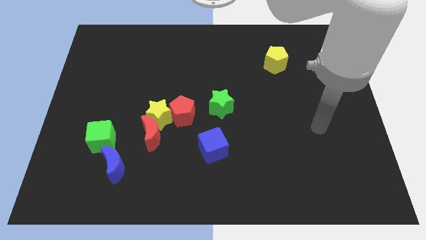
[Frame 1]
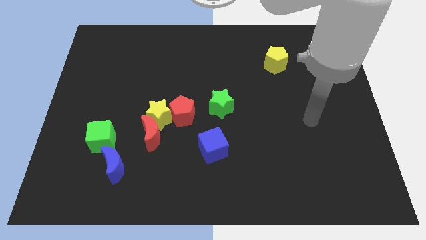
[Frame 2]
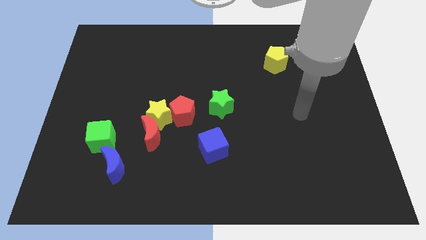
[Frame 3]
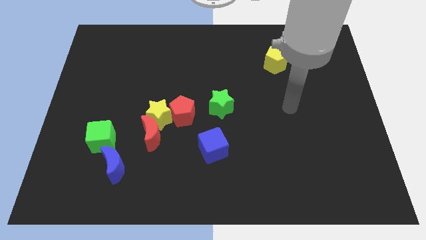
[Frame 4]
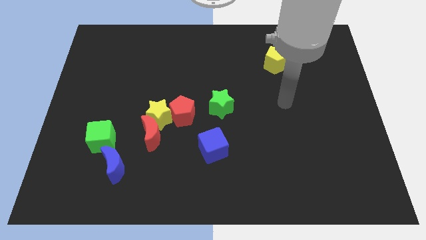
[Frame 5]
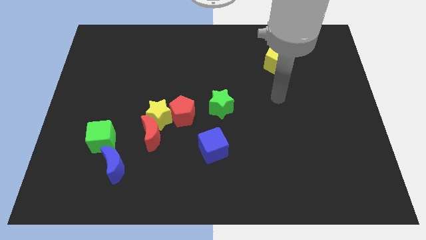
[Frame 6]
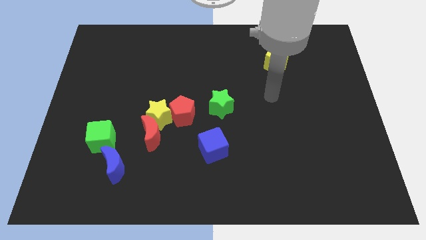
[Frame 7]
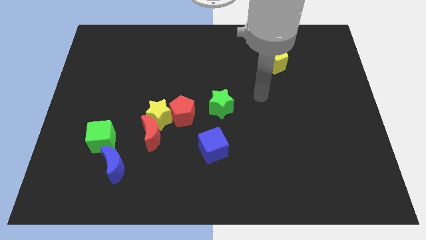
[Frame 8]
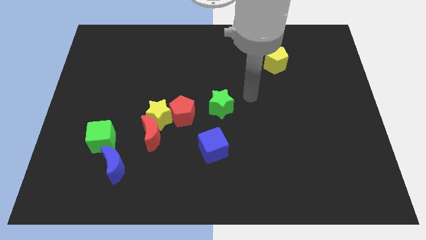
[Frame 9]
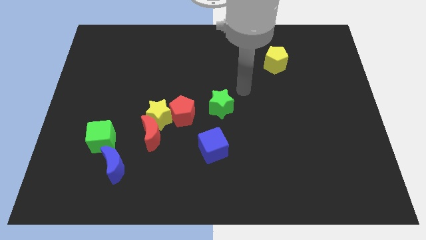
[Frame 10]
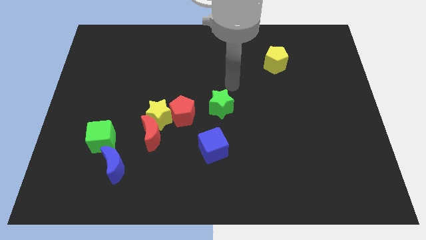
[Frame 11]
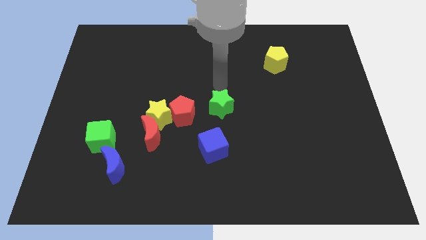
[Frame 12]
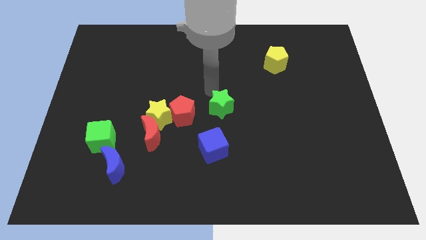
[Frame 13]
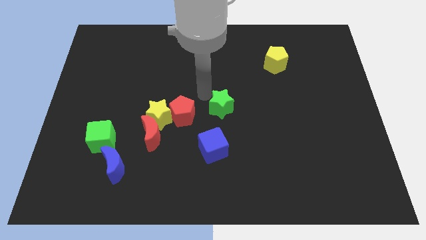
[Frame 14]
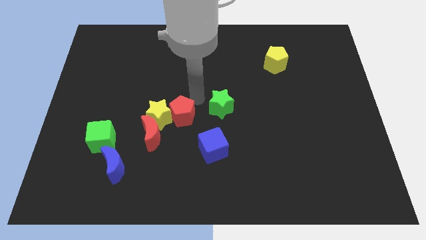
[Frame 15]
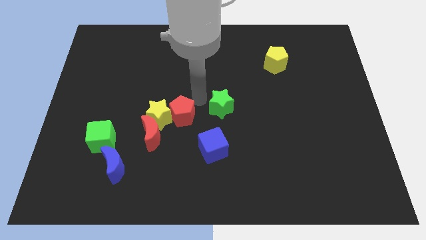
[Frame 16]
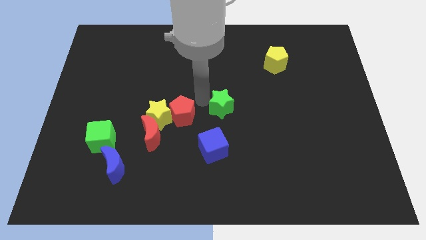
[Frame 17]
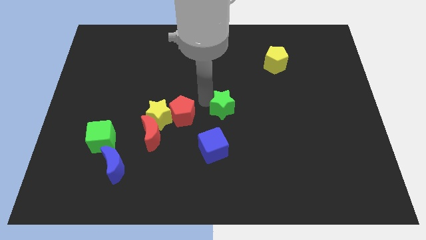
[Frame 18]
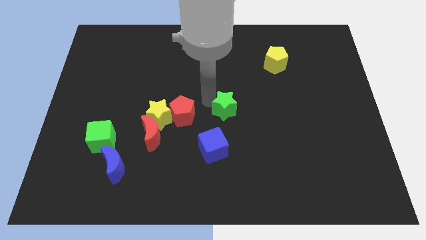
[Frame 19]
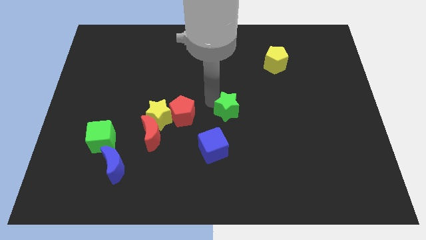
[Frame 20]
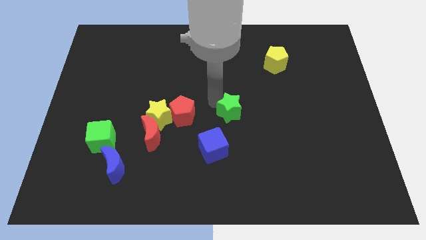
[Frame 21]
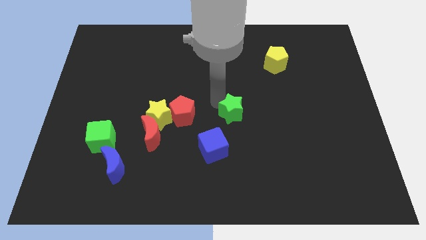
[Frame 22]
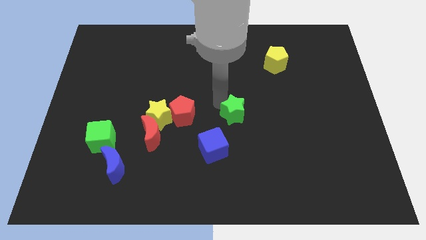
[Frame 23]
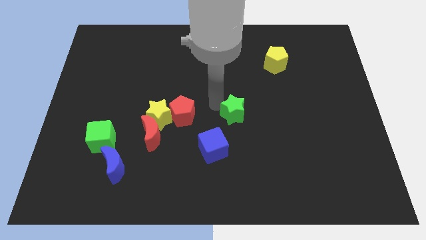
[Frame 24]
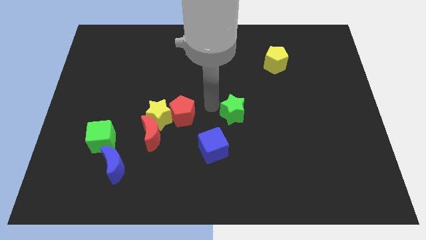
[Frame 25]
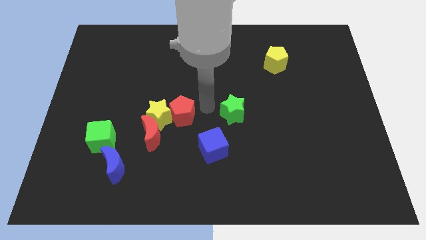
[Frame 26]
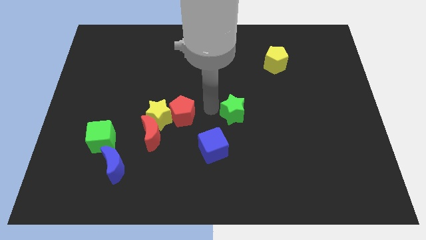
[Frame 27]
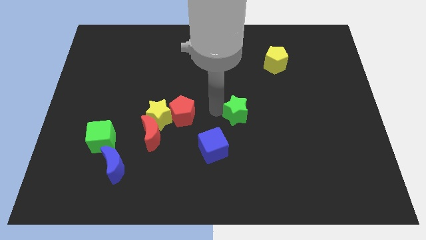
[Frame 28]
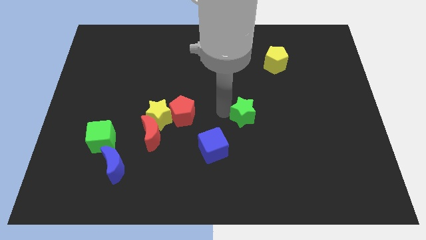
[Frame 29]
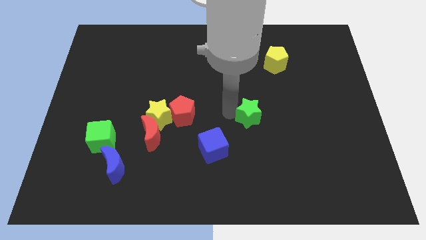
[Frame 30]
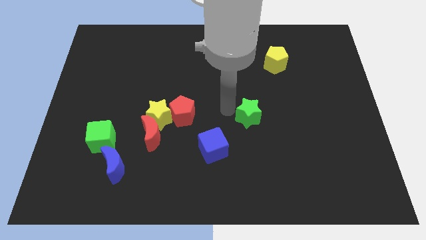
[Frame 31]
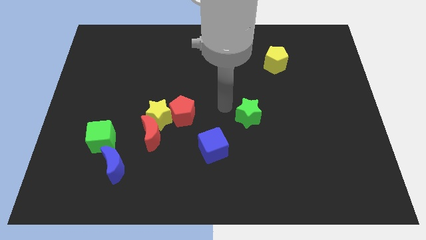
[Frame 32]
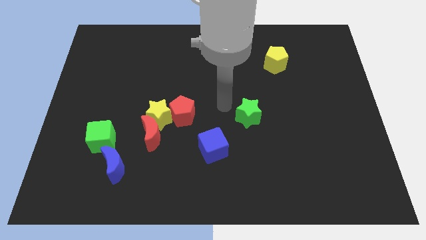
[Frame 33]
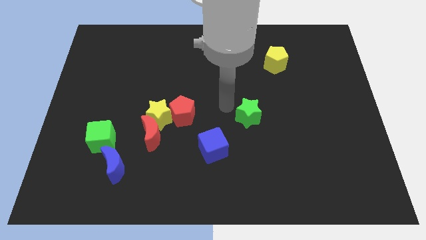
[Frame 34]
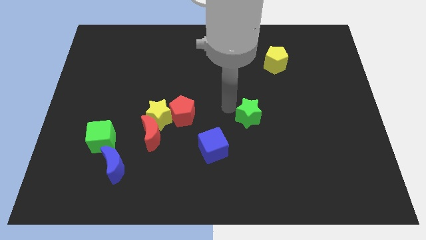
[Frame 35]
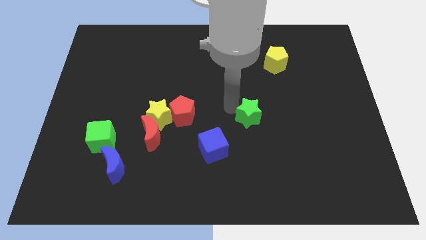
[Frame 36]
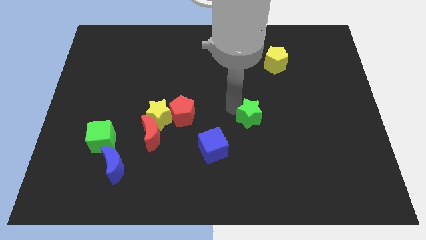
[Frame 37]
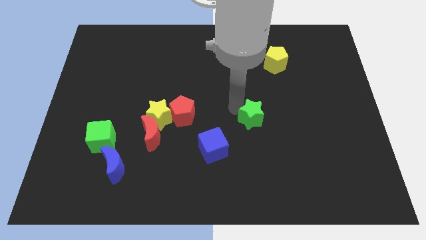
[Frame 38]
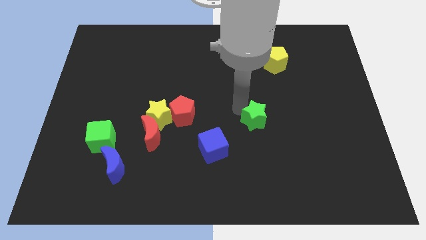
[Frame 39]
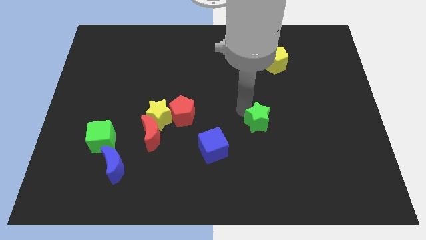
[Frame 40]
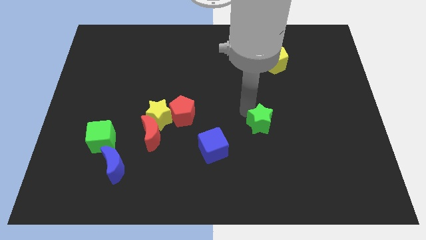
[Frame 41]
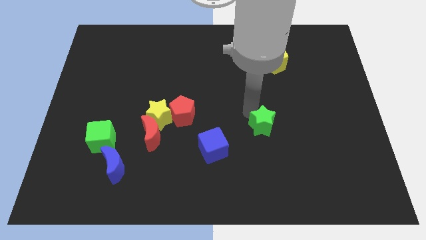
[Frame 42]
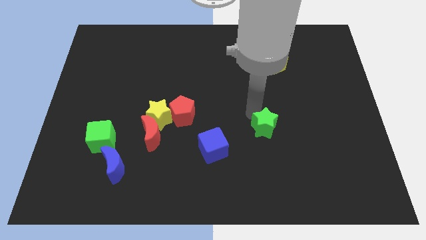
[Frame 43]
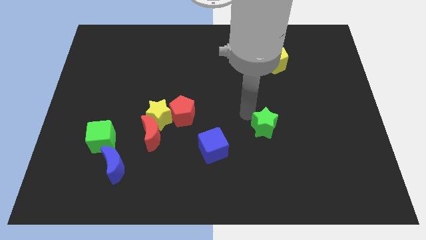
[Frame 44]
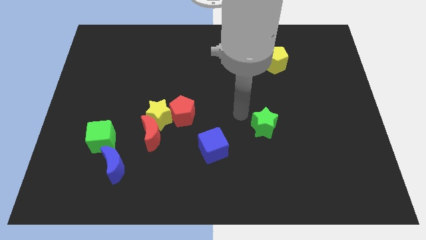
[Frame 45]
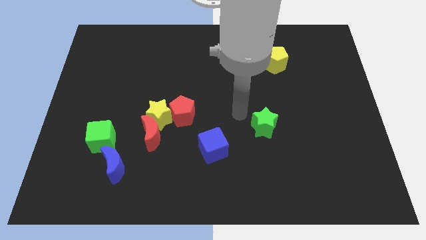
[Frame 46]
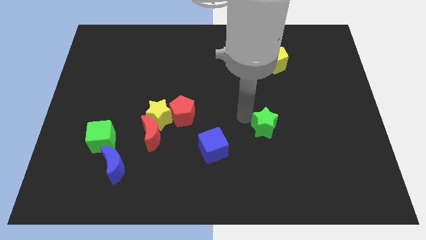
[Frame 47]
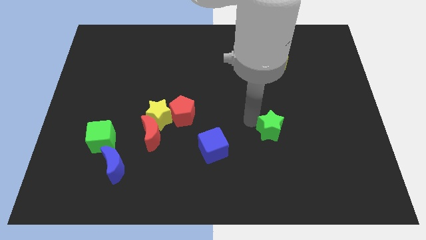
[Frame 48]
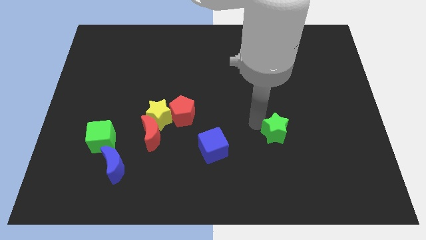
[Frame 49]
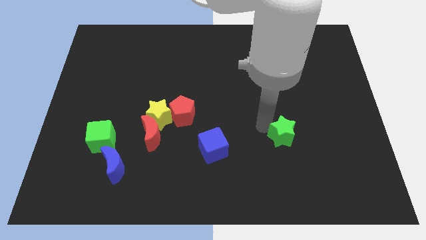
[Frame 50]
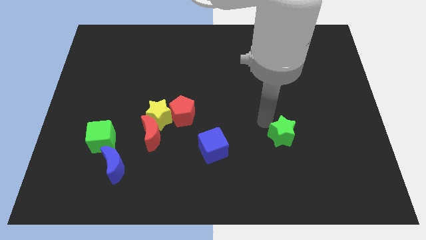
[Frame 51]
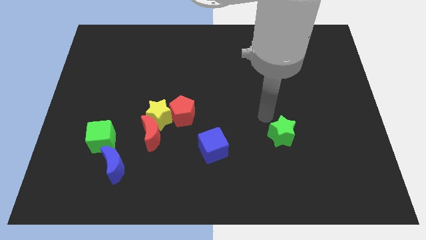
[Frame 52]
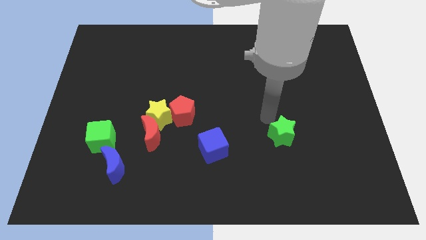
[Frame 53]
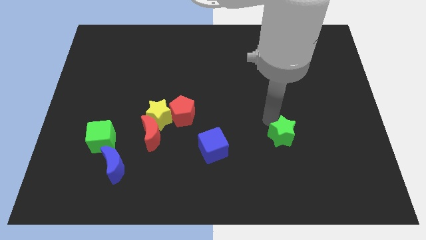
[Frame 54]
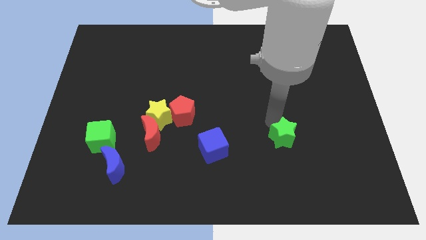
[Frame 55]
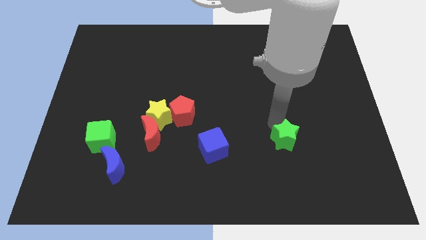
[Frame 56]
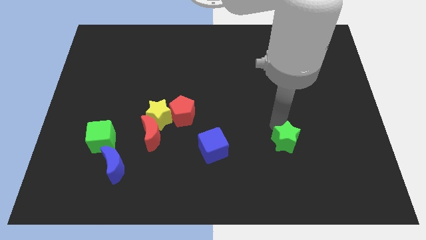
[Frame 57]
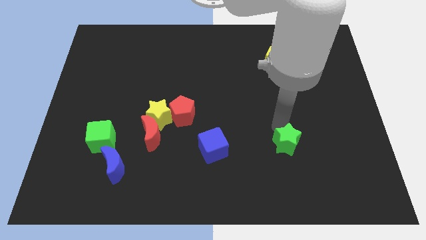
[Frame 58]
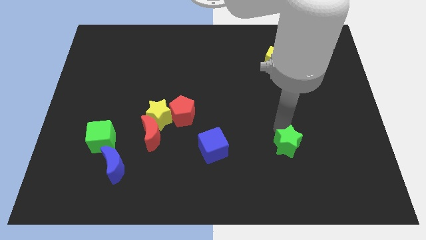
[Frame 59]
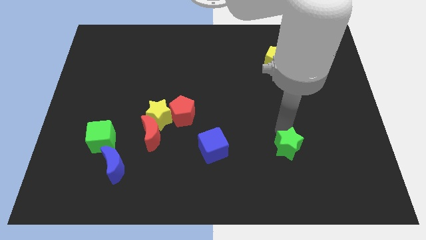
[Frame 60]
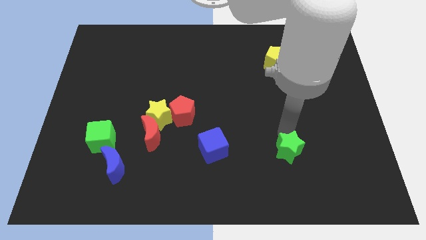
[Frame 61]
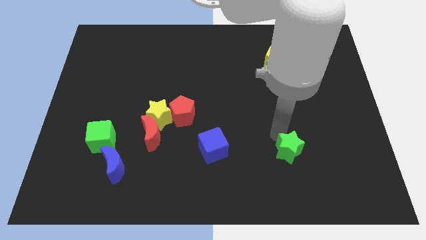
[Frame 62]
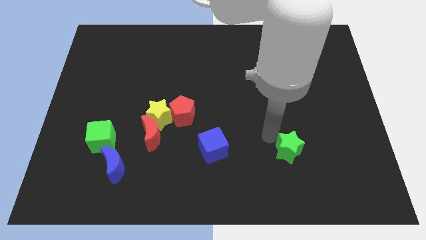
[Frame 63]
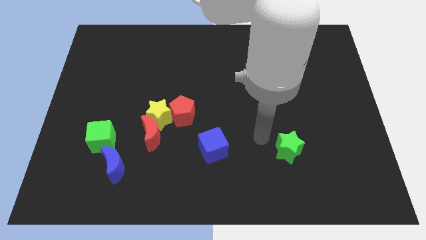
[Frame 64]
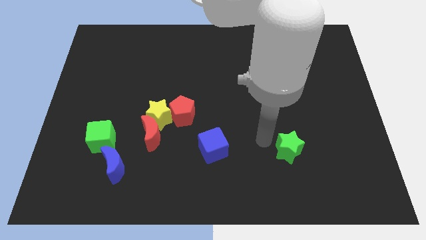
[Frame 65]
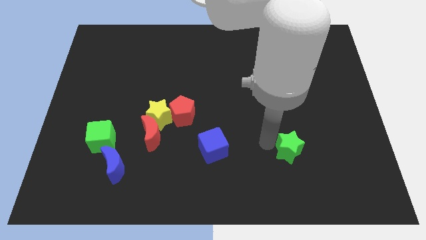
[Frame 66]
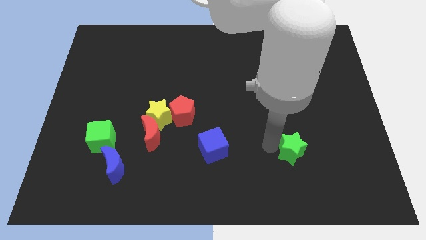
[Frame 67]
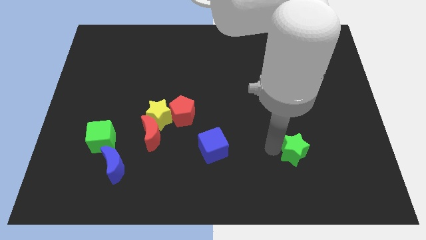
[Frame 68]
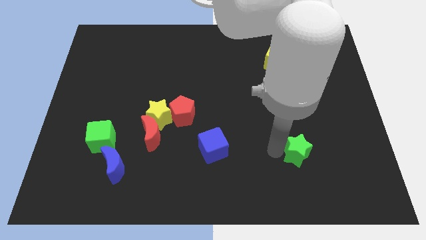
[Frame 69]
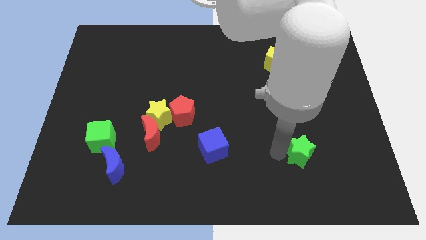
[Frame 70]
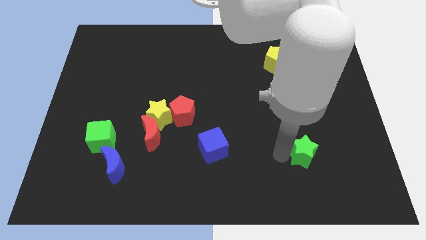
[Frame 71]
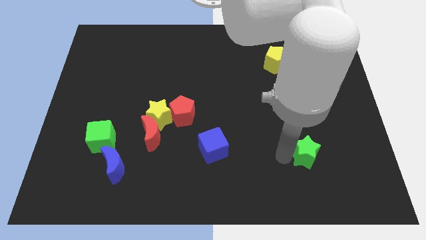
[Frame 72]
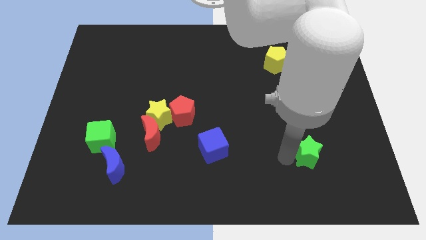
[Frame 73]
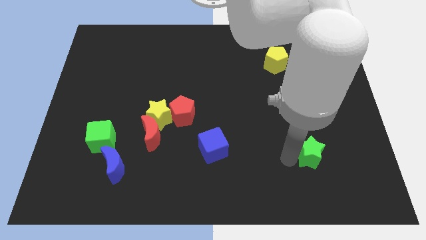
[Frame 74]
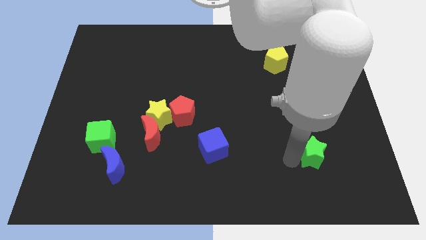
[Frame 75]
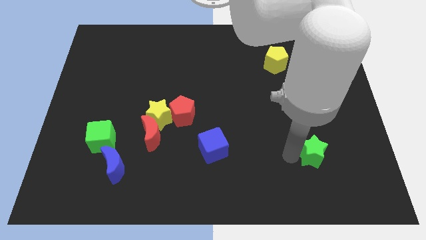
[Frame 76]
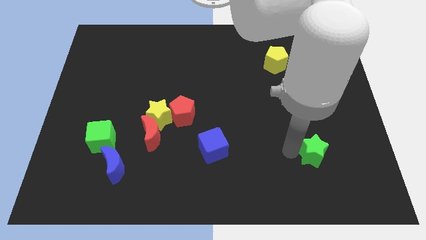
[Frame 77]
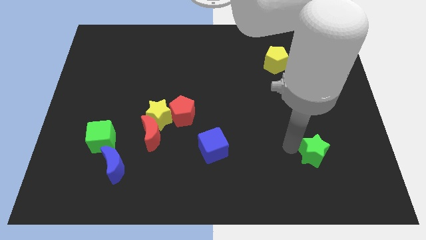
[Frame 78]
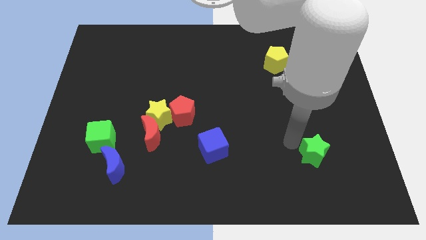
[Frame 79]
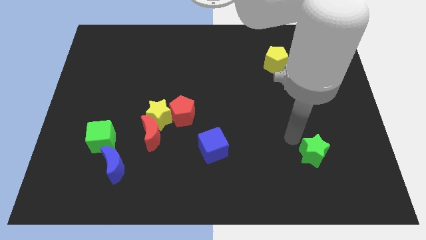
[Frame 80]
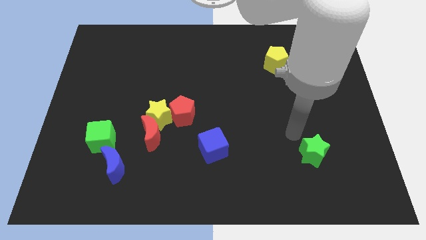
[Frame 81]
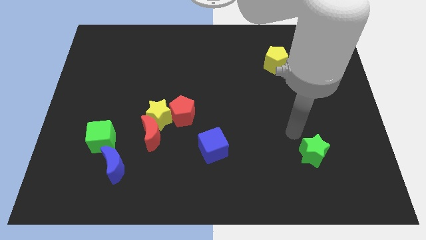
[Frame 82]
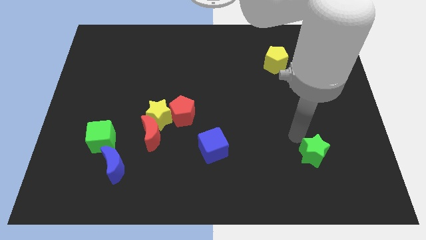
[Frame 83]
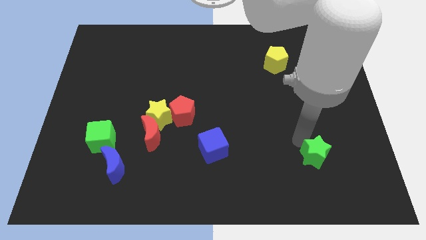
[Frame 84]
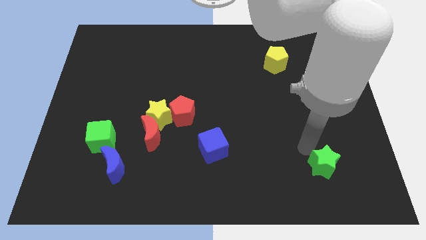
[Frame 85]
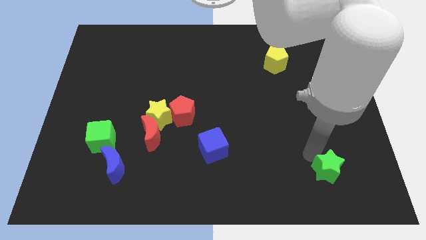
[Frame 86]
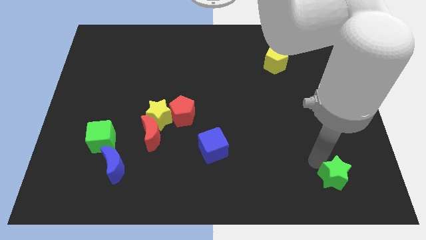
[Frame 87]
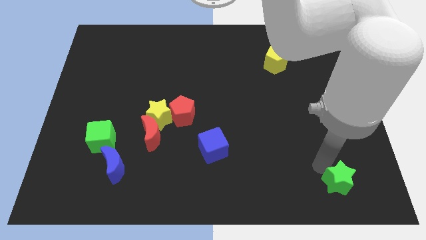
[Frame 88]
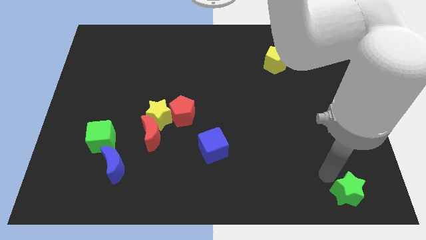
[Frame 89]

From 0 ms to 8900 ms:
put the green star to the bottom right corner
